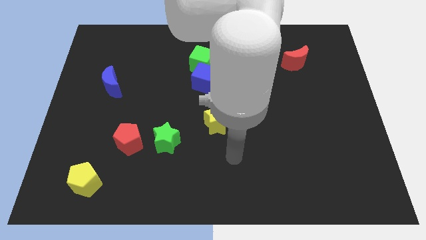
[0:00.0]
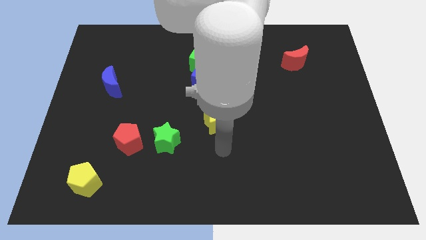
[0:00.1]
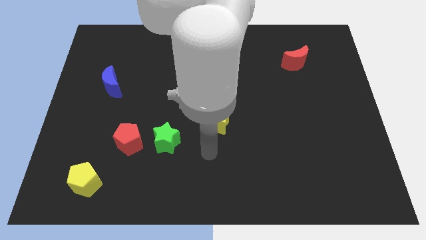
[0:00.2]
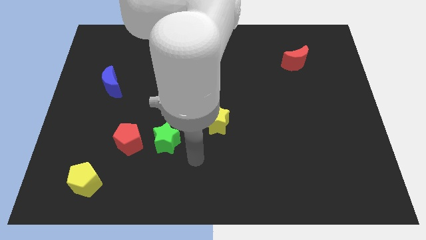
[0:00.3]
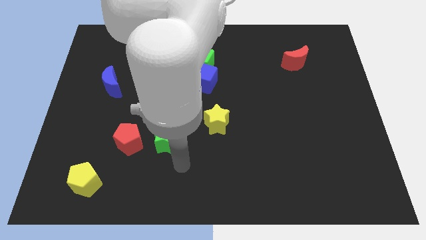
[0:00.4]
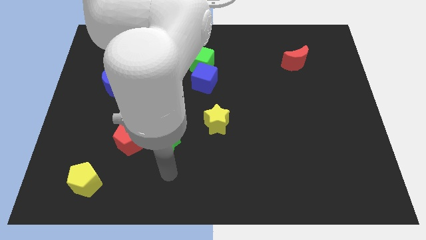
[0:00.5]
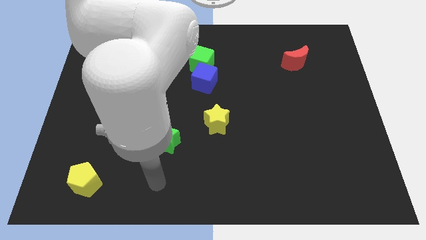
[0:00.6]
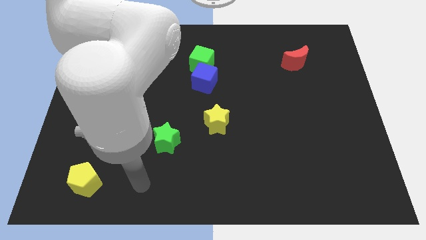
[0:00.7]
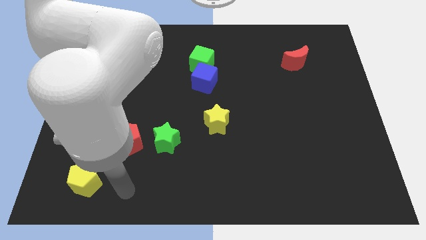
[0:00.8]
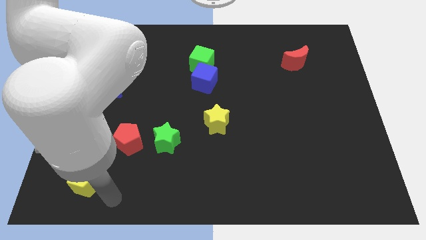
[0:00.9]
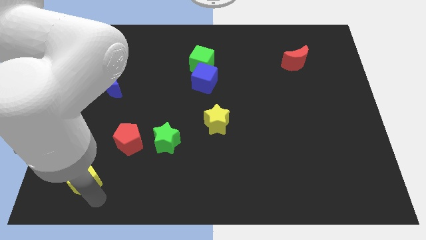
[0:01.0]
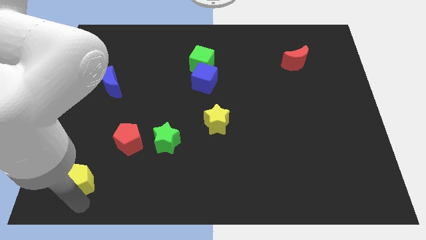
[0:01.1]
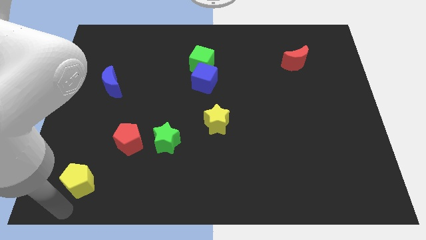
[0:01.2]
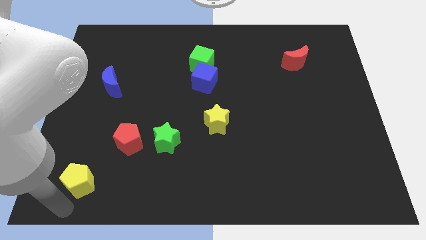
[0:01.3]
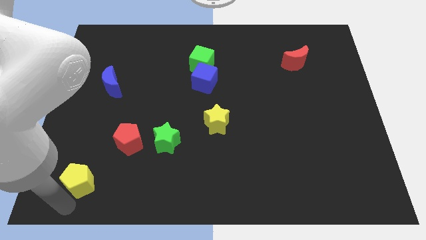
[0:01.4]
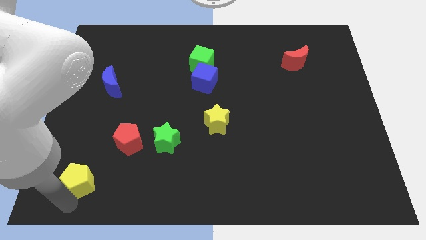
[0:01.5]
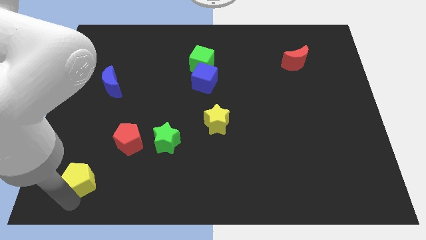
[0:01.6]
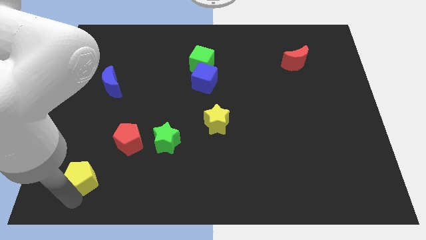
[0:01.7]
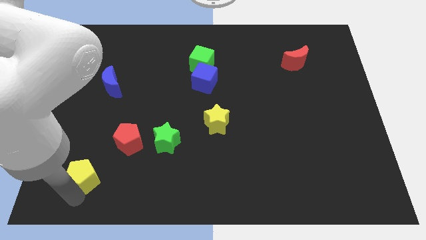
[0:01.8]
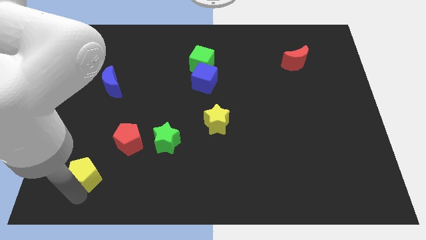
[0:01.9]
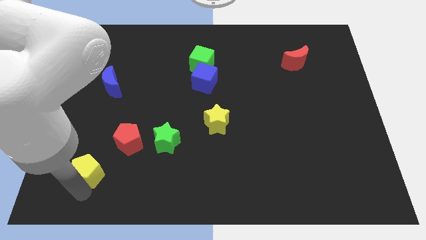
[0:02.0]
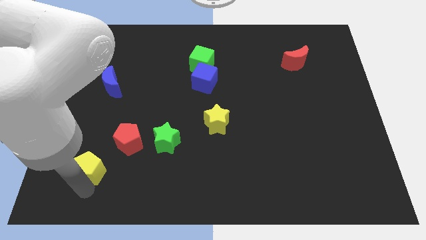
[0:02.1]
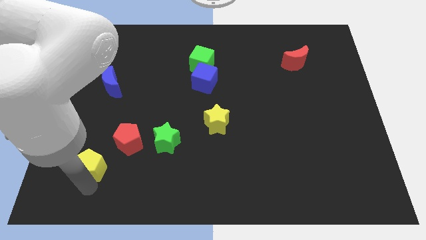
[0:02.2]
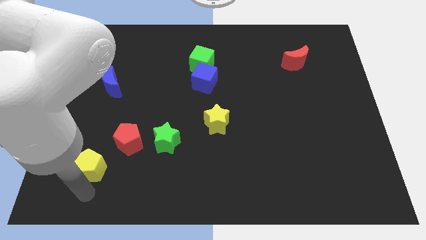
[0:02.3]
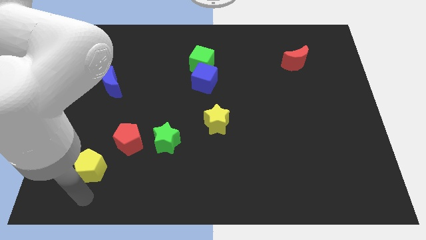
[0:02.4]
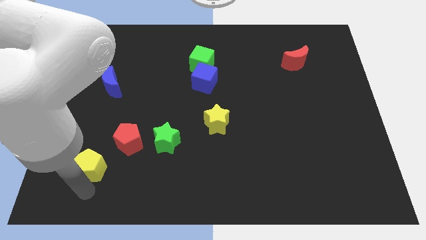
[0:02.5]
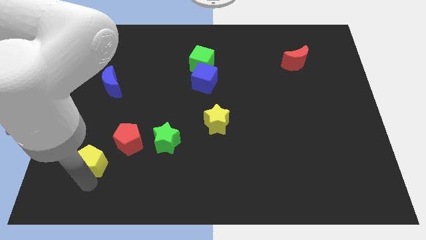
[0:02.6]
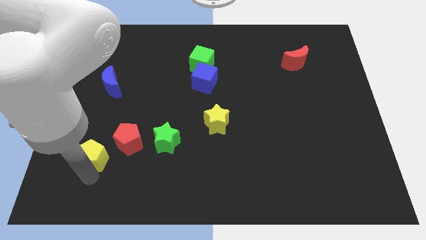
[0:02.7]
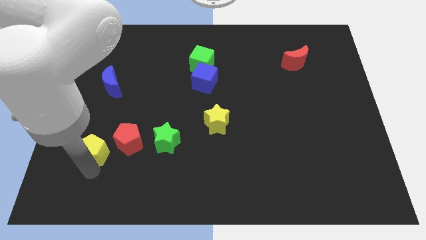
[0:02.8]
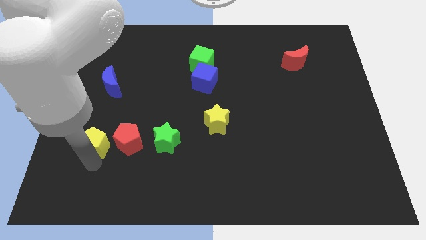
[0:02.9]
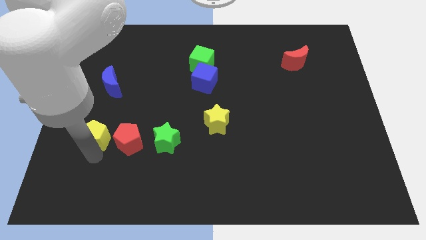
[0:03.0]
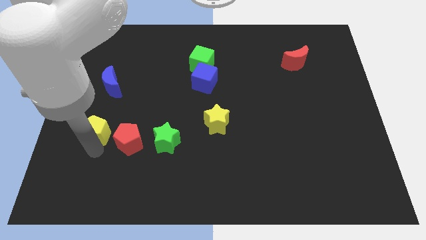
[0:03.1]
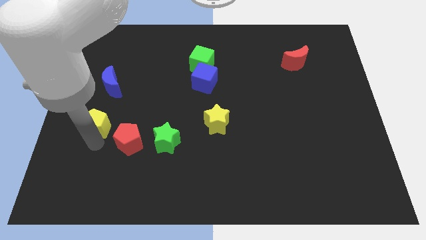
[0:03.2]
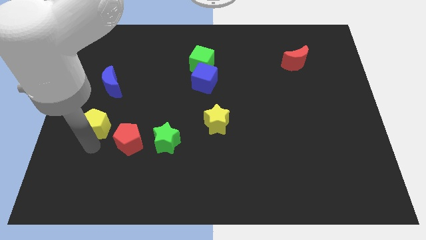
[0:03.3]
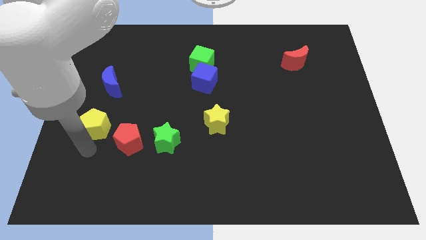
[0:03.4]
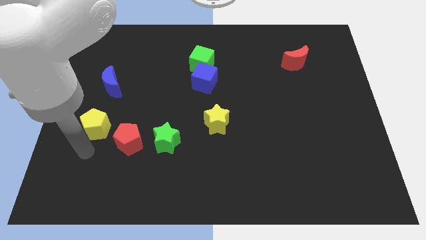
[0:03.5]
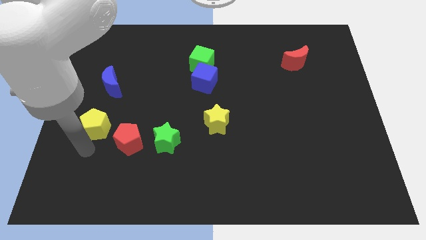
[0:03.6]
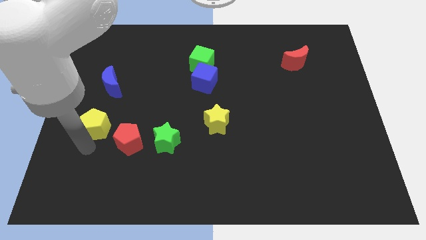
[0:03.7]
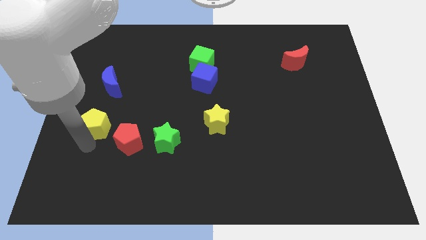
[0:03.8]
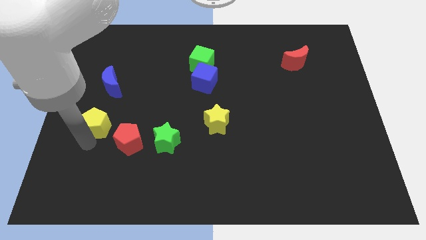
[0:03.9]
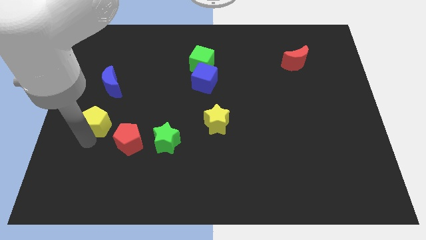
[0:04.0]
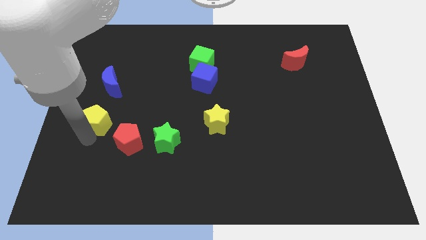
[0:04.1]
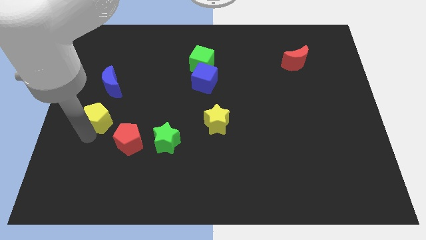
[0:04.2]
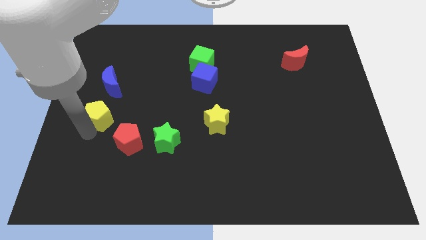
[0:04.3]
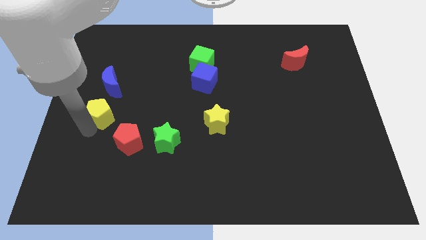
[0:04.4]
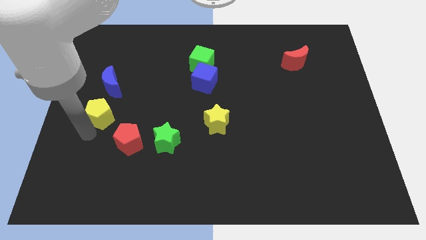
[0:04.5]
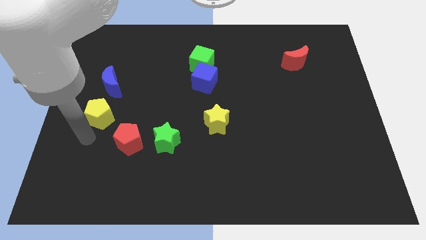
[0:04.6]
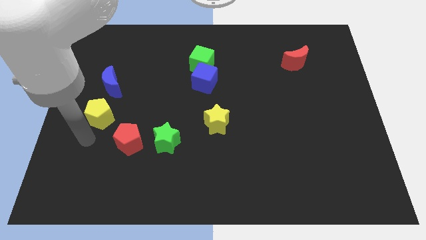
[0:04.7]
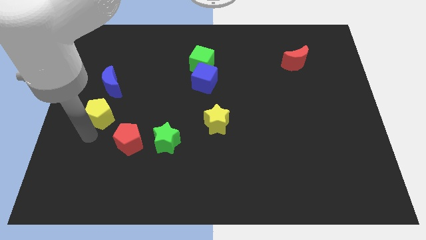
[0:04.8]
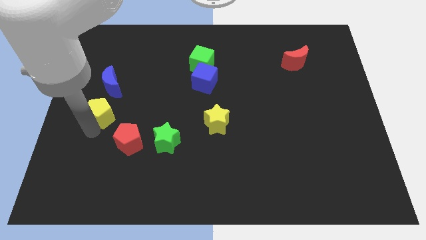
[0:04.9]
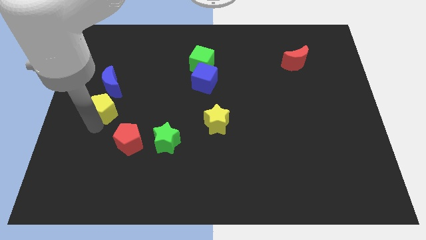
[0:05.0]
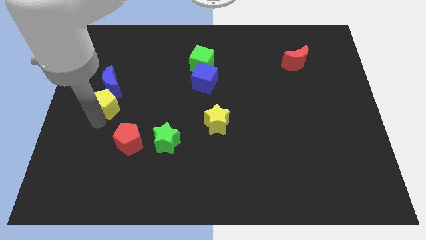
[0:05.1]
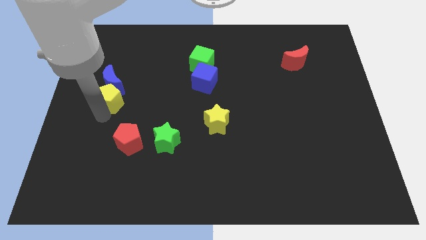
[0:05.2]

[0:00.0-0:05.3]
slide the yellow pentagon next to the blue moon

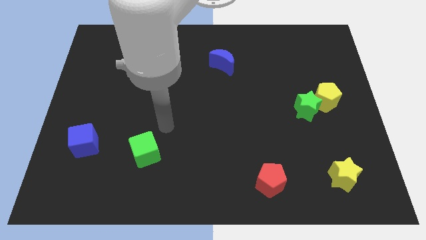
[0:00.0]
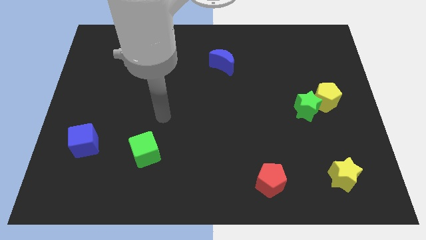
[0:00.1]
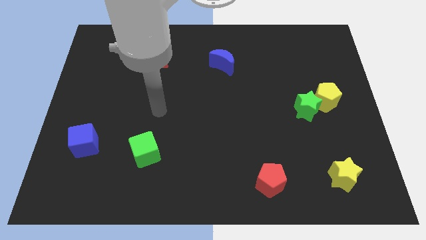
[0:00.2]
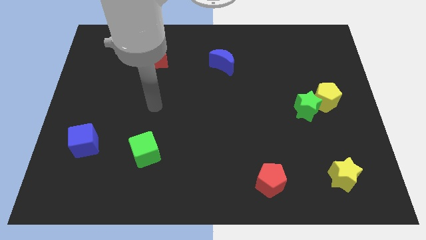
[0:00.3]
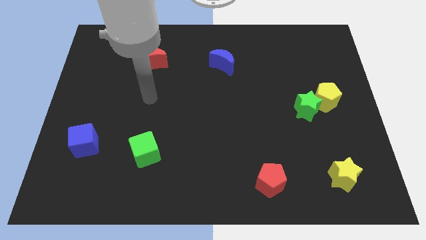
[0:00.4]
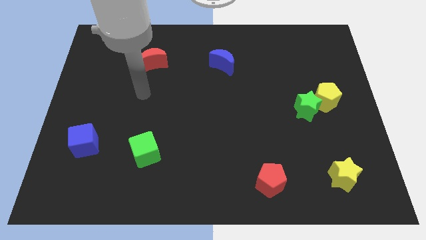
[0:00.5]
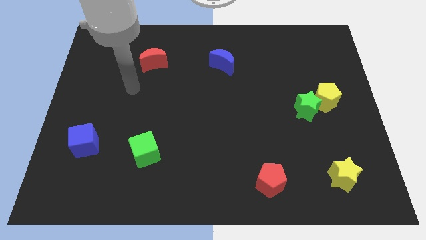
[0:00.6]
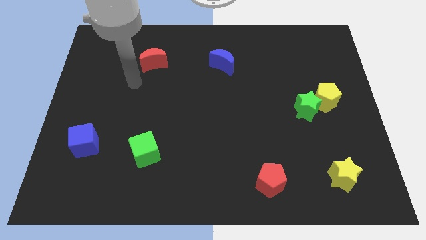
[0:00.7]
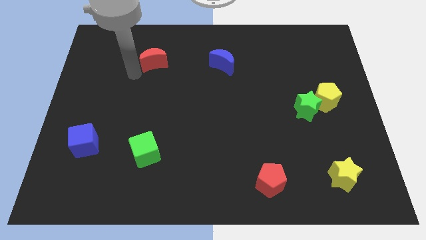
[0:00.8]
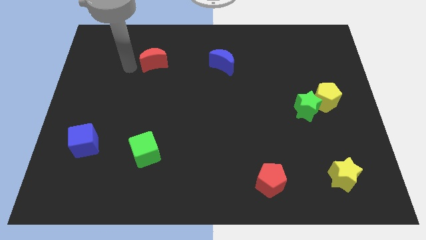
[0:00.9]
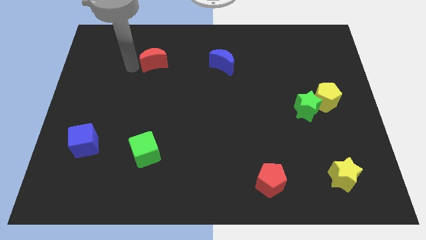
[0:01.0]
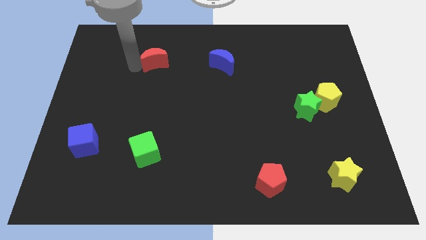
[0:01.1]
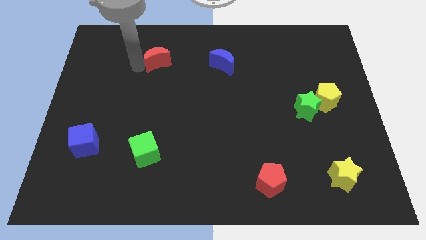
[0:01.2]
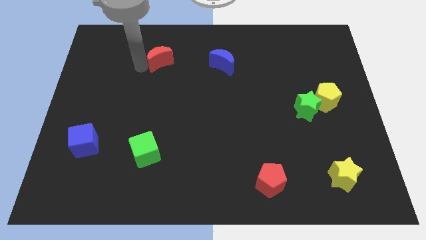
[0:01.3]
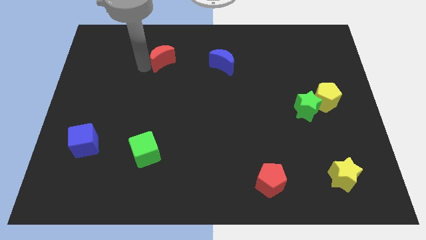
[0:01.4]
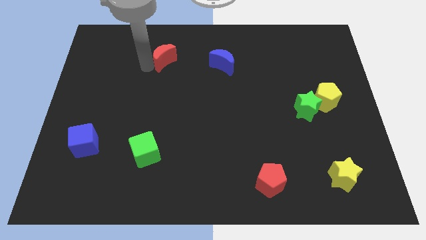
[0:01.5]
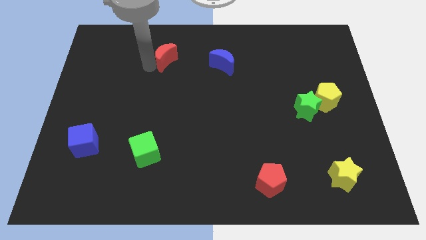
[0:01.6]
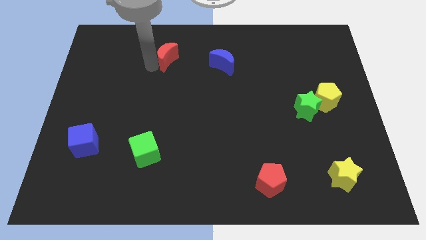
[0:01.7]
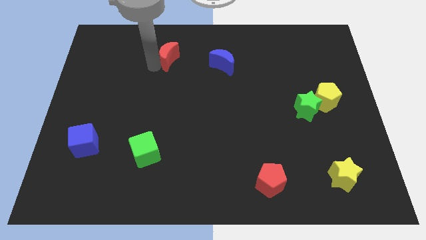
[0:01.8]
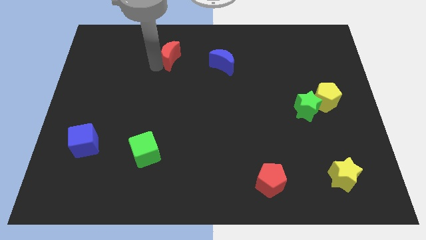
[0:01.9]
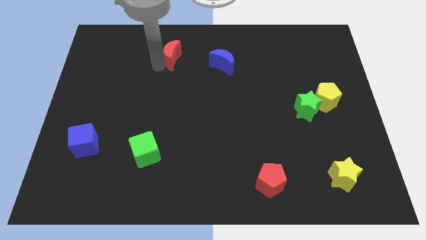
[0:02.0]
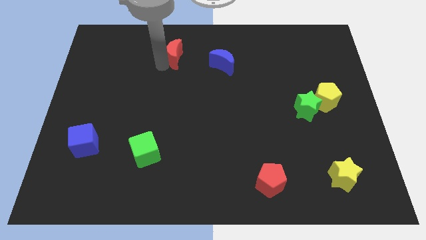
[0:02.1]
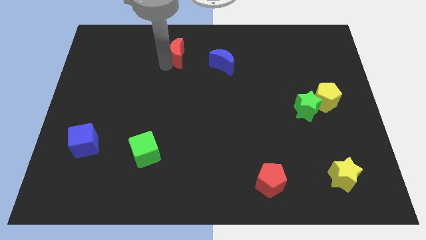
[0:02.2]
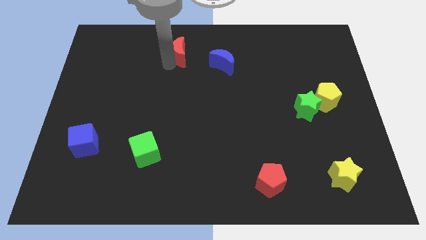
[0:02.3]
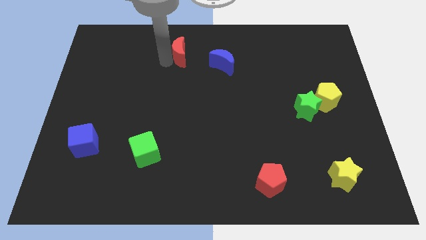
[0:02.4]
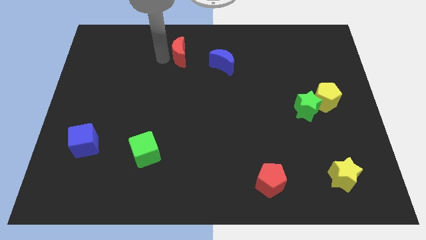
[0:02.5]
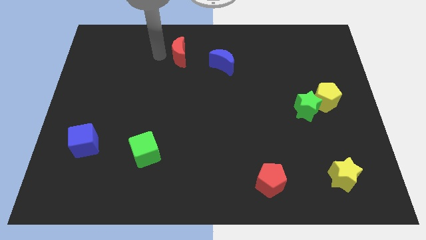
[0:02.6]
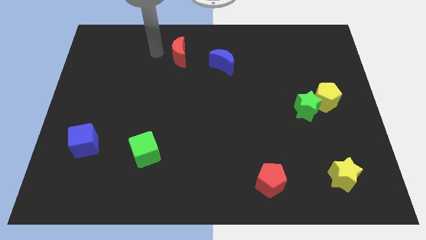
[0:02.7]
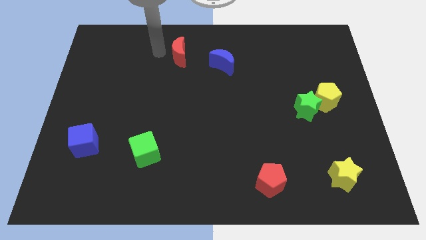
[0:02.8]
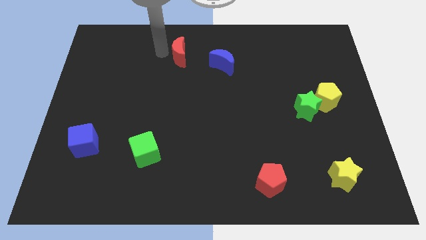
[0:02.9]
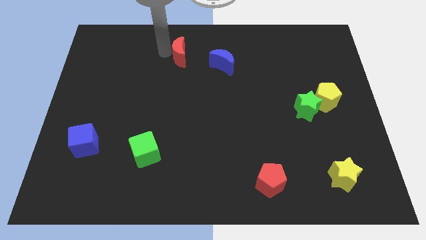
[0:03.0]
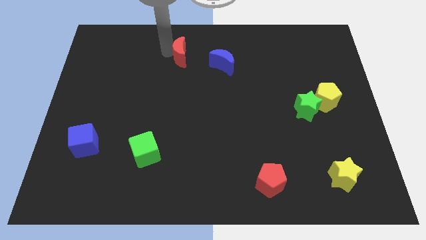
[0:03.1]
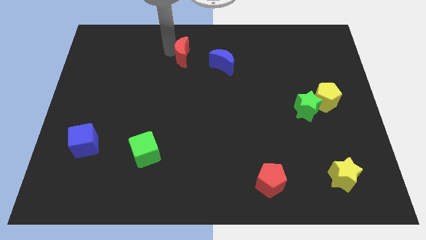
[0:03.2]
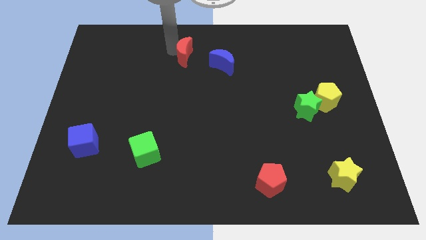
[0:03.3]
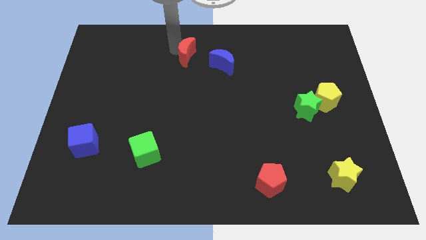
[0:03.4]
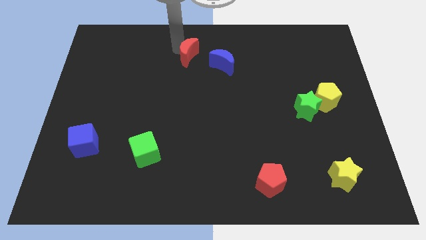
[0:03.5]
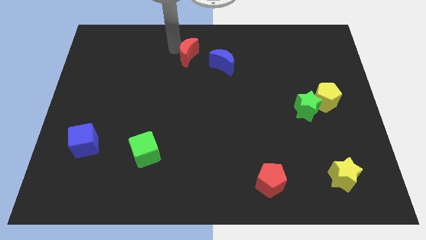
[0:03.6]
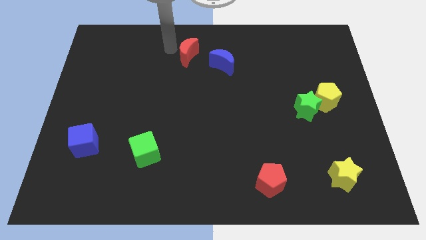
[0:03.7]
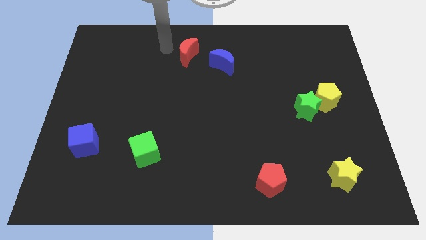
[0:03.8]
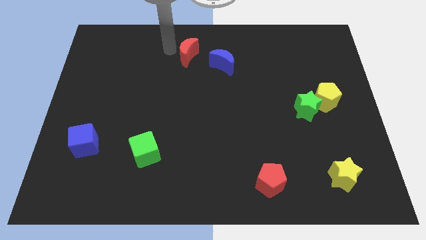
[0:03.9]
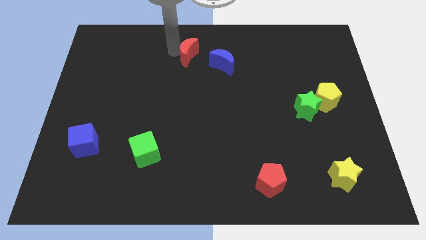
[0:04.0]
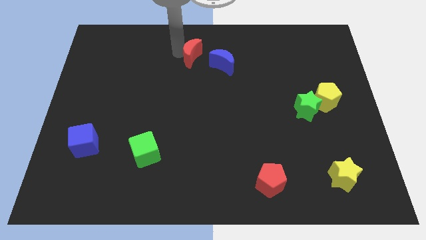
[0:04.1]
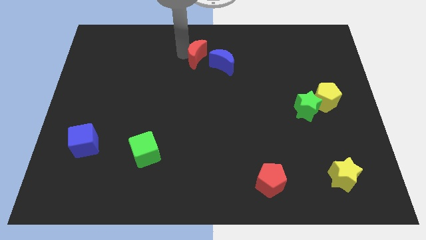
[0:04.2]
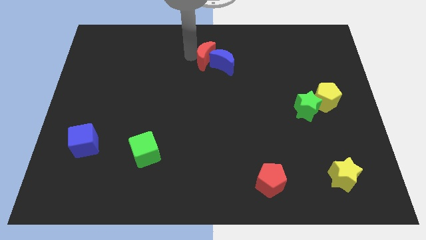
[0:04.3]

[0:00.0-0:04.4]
move the red moon towards the blue moon
